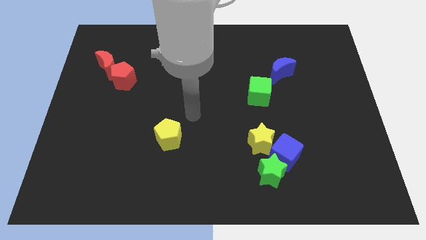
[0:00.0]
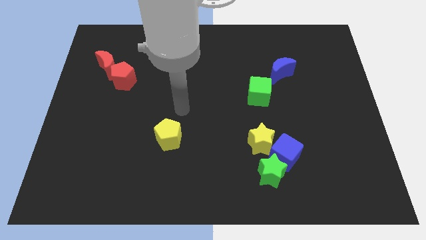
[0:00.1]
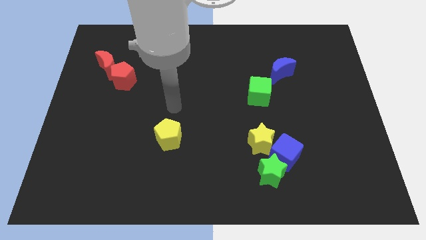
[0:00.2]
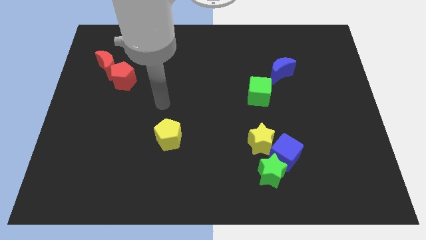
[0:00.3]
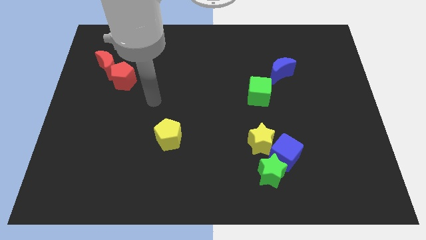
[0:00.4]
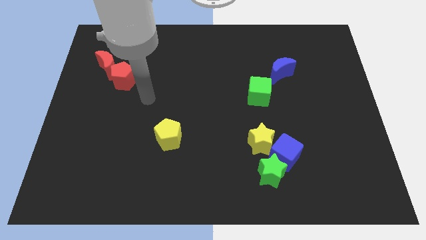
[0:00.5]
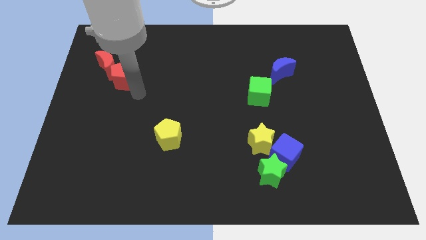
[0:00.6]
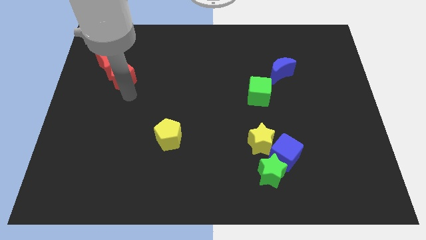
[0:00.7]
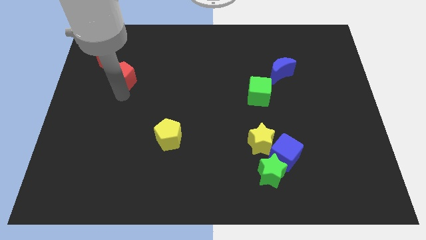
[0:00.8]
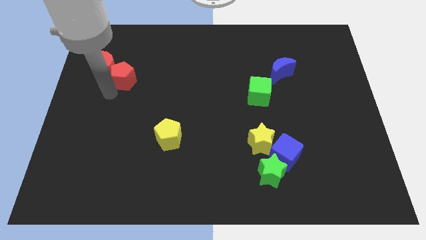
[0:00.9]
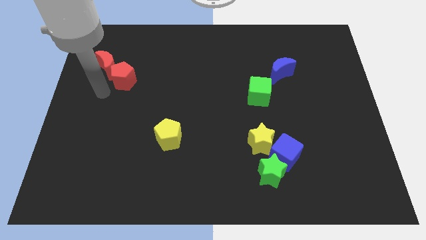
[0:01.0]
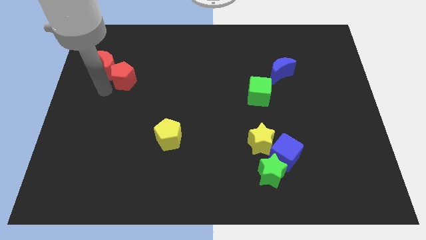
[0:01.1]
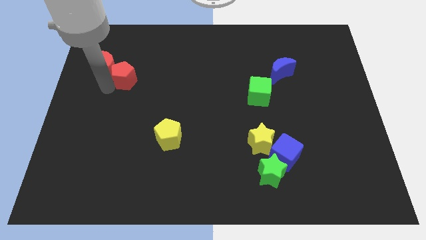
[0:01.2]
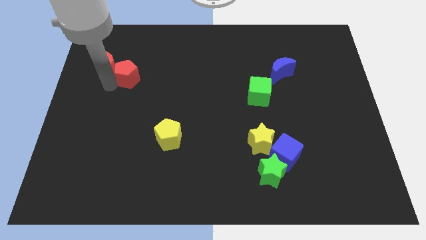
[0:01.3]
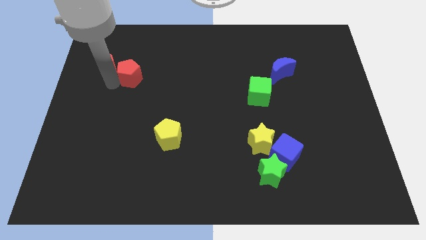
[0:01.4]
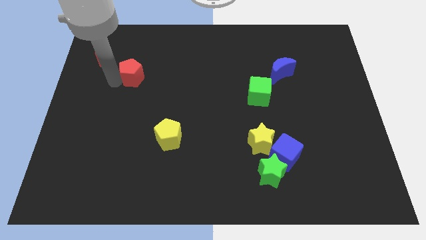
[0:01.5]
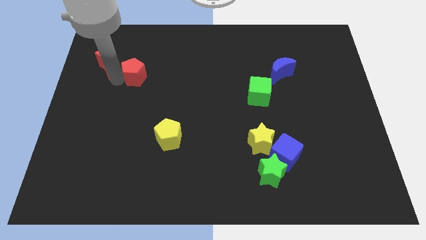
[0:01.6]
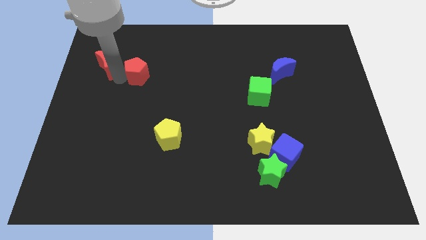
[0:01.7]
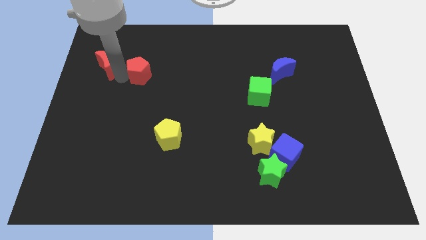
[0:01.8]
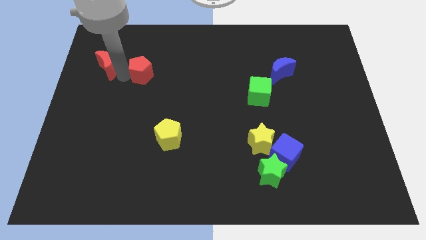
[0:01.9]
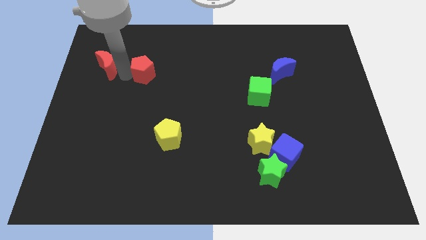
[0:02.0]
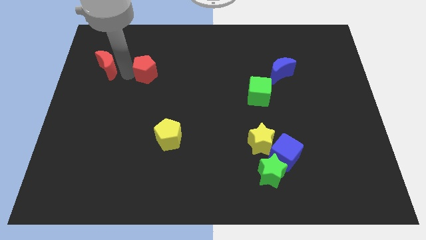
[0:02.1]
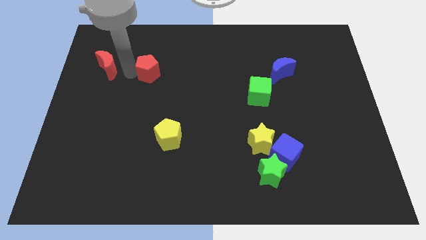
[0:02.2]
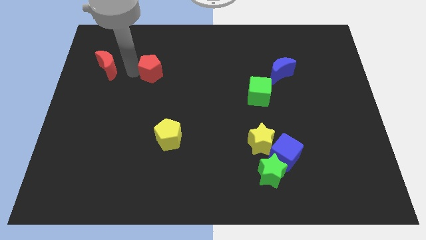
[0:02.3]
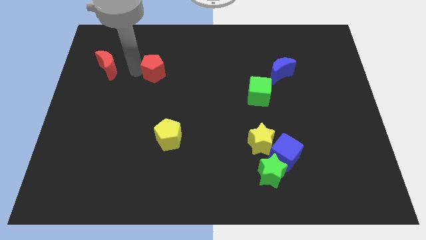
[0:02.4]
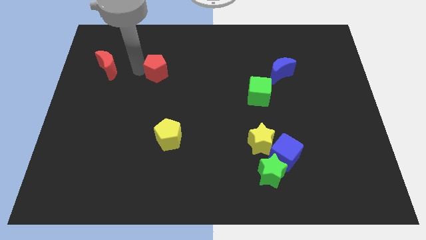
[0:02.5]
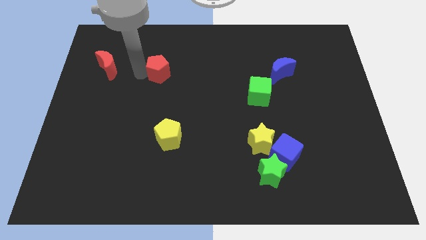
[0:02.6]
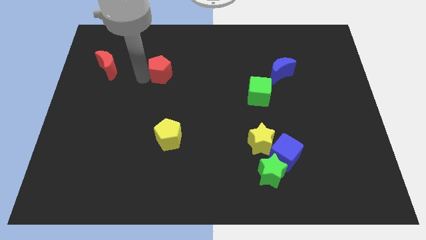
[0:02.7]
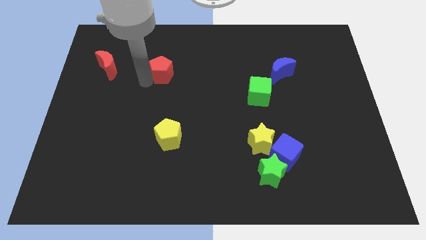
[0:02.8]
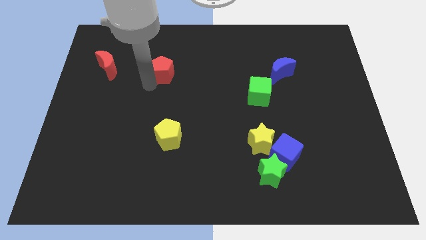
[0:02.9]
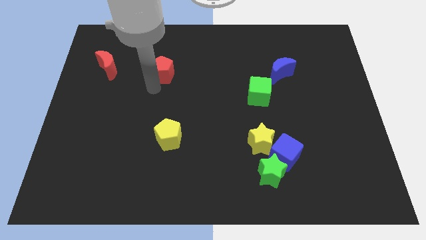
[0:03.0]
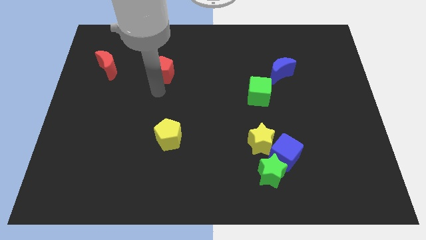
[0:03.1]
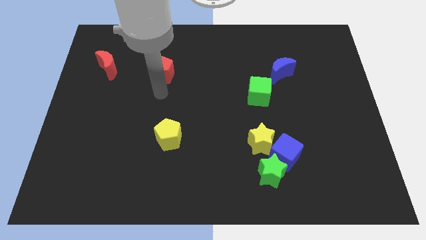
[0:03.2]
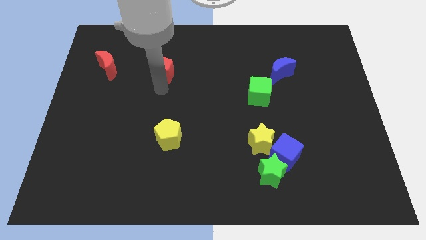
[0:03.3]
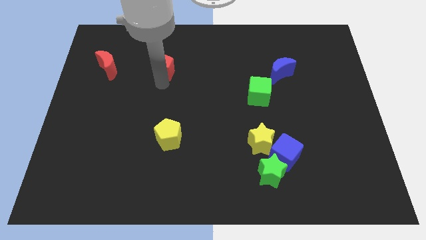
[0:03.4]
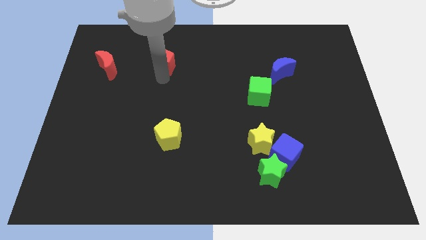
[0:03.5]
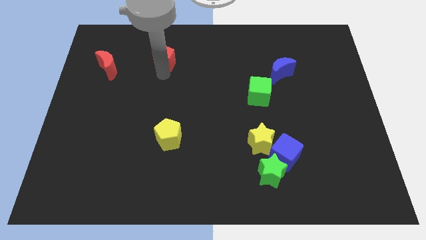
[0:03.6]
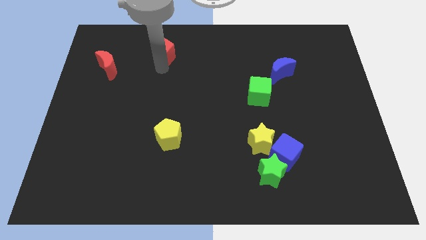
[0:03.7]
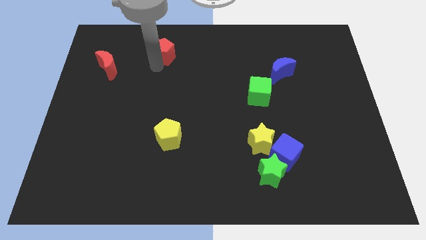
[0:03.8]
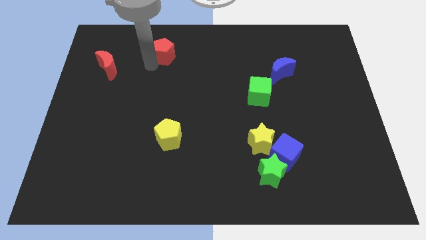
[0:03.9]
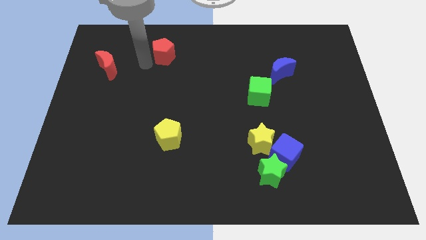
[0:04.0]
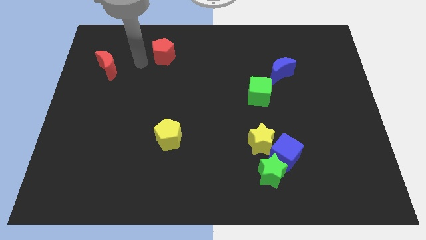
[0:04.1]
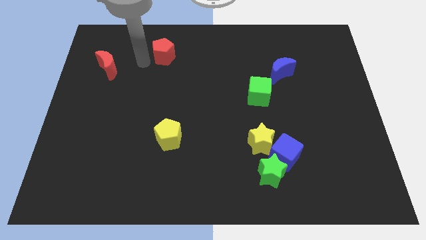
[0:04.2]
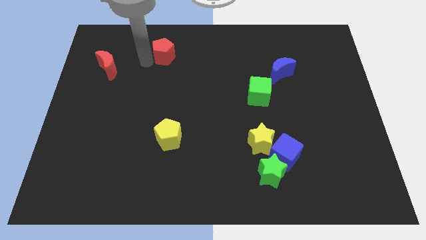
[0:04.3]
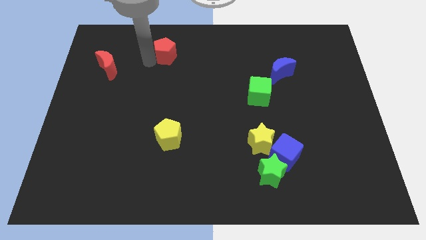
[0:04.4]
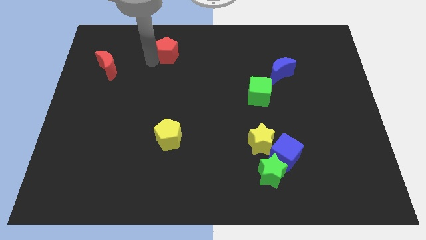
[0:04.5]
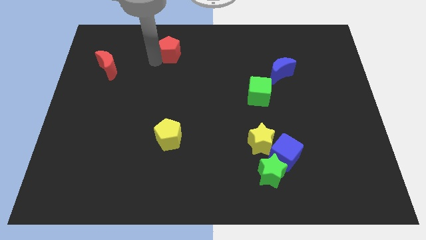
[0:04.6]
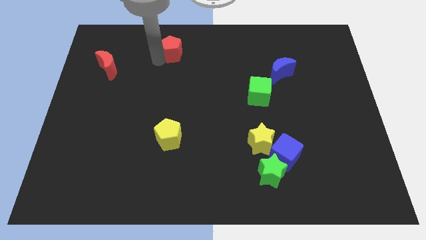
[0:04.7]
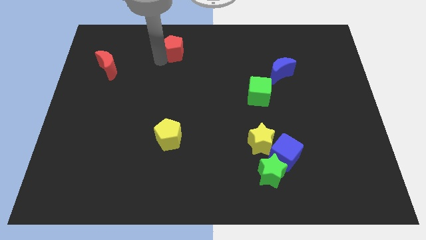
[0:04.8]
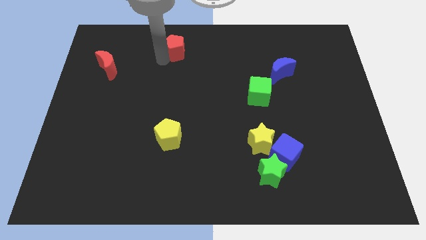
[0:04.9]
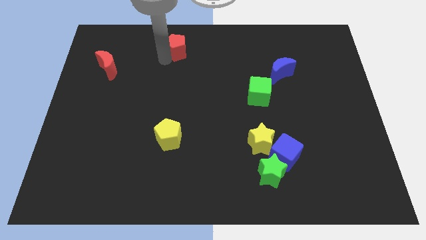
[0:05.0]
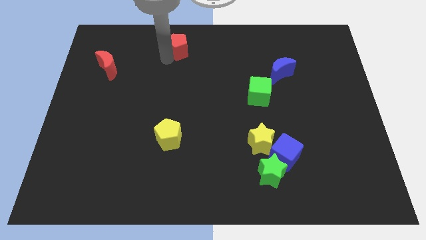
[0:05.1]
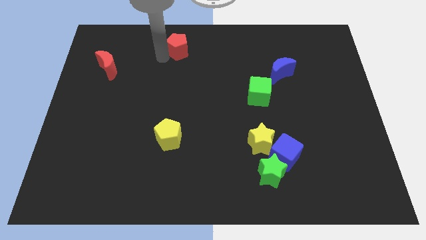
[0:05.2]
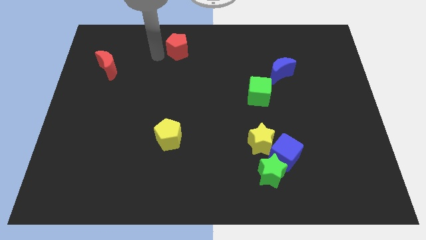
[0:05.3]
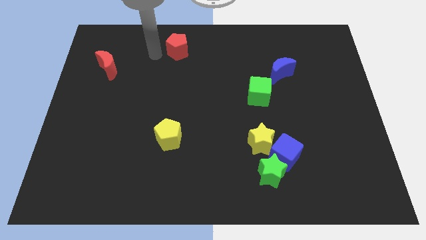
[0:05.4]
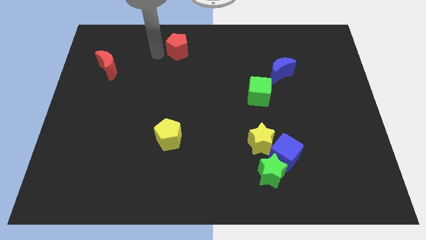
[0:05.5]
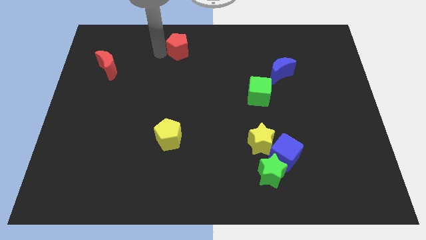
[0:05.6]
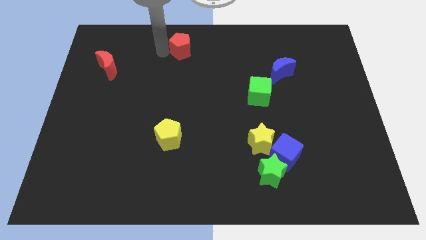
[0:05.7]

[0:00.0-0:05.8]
push the red pentagon to the top
